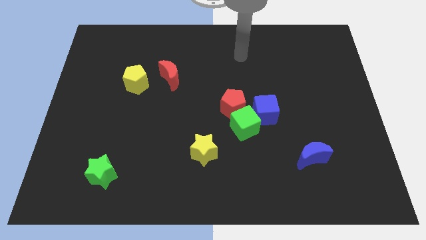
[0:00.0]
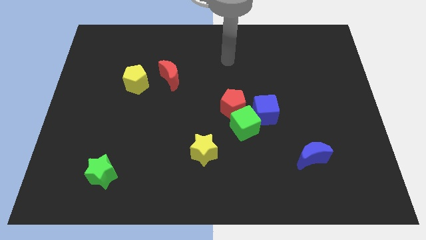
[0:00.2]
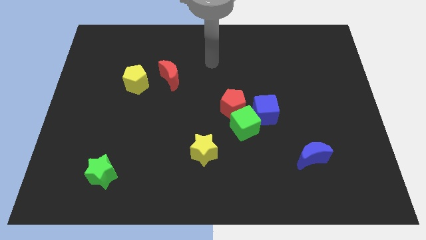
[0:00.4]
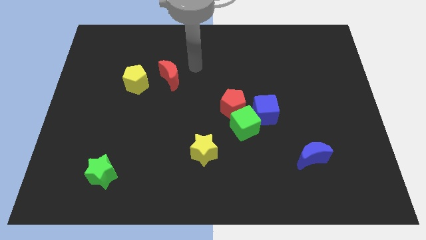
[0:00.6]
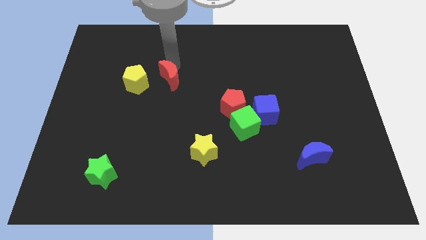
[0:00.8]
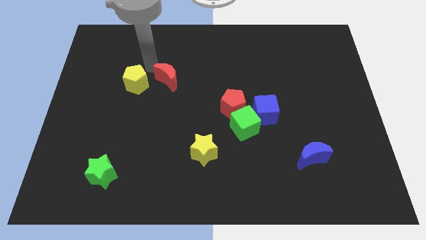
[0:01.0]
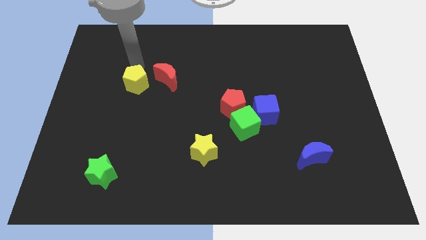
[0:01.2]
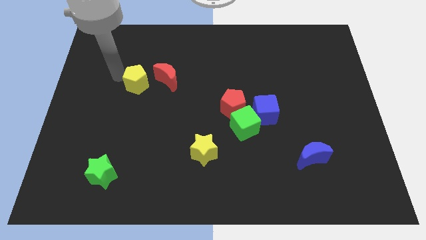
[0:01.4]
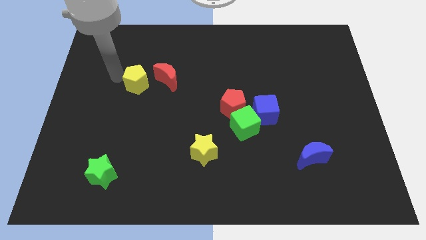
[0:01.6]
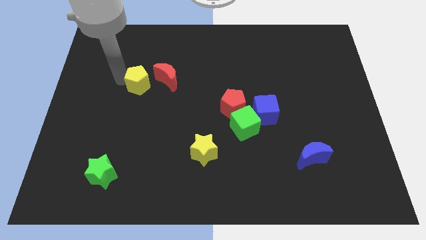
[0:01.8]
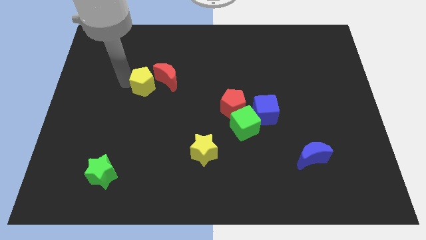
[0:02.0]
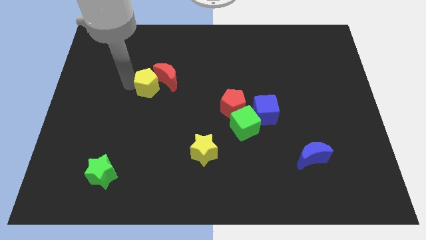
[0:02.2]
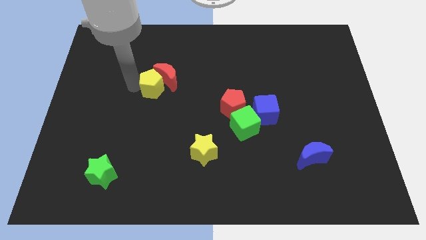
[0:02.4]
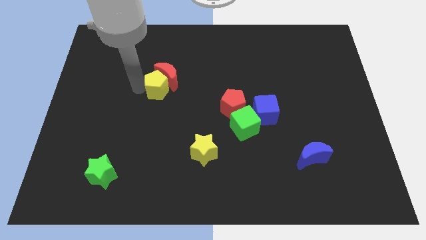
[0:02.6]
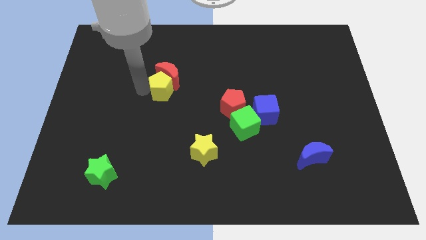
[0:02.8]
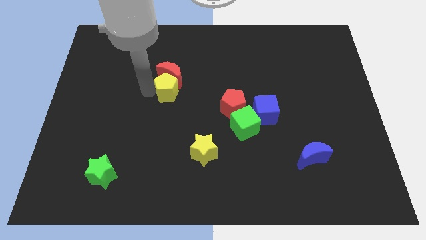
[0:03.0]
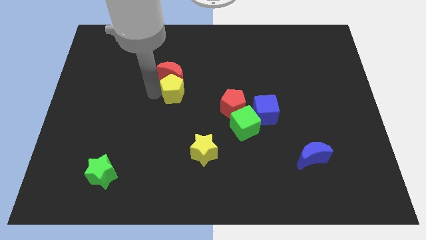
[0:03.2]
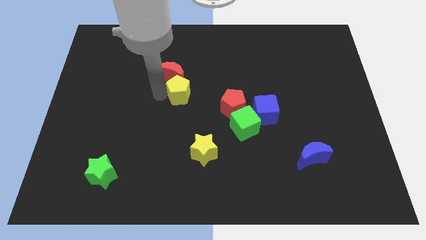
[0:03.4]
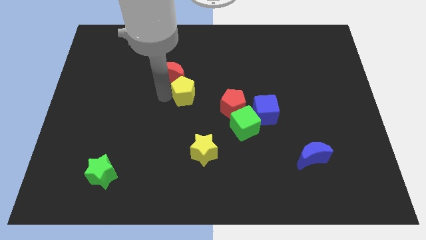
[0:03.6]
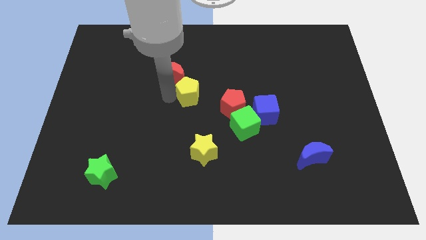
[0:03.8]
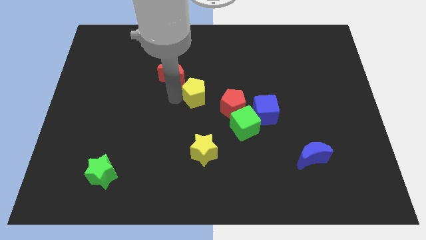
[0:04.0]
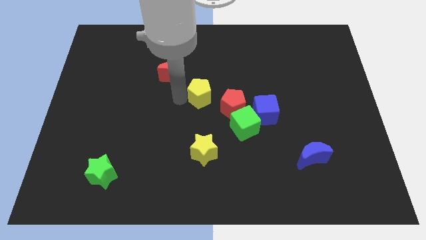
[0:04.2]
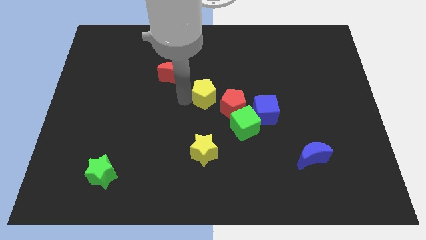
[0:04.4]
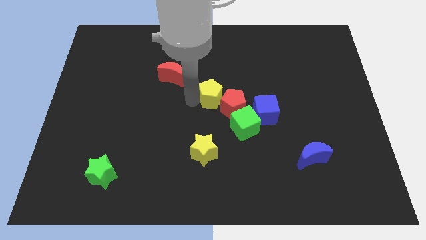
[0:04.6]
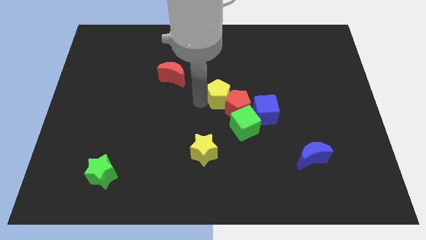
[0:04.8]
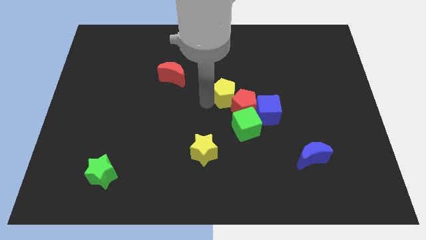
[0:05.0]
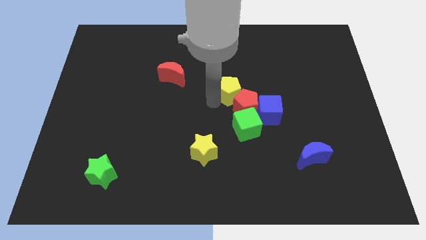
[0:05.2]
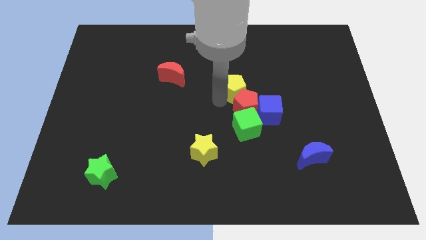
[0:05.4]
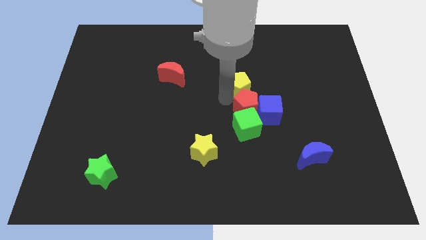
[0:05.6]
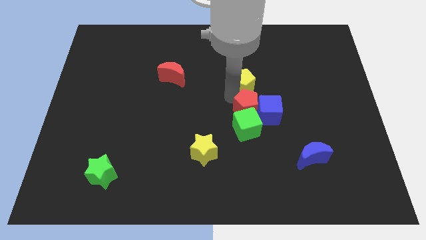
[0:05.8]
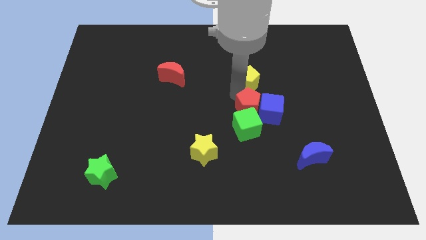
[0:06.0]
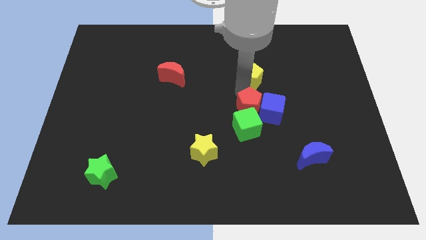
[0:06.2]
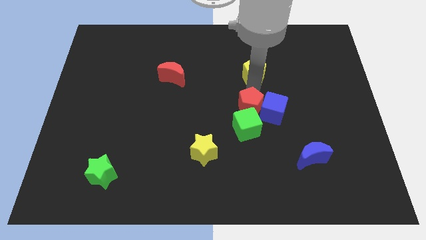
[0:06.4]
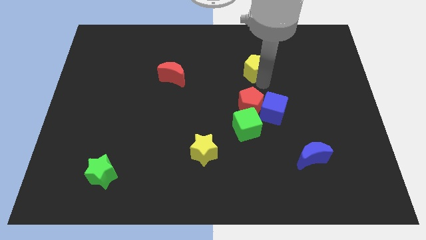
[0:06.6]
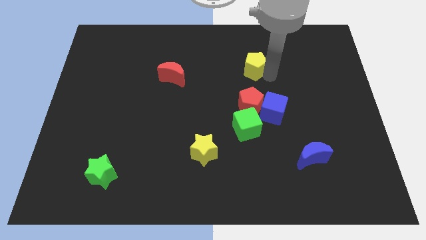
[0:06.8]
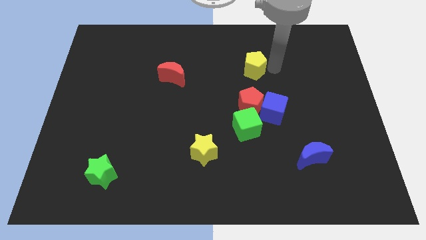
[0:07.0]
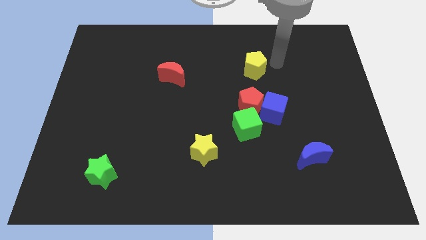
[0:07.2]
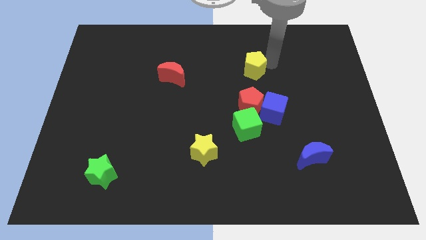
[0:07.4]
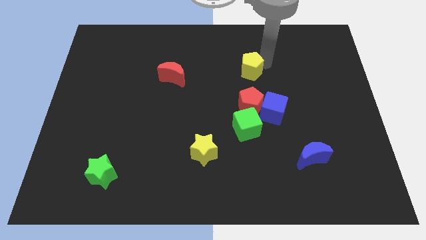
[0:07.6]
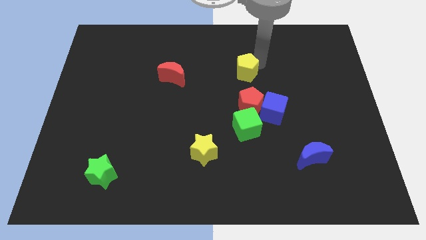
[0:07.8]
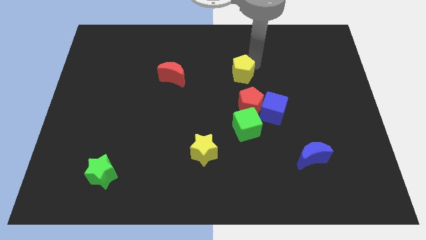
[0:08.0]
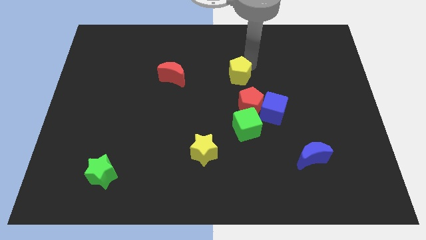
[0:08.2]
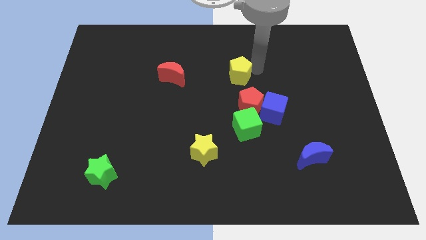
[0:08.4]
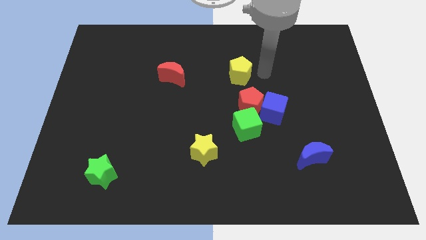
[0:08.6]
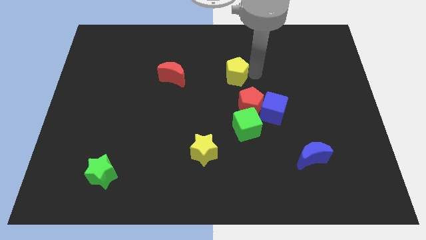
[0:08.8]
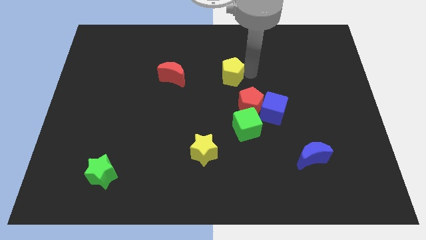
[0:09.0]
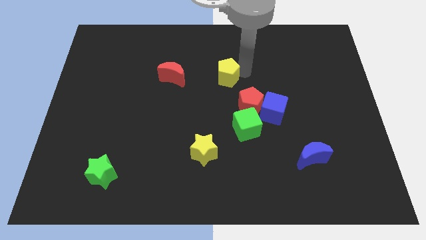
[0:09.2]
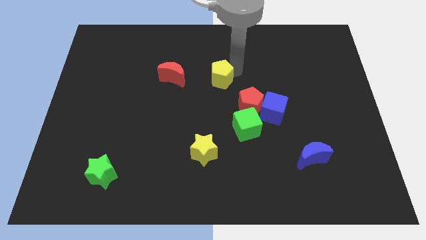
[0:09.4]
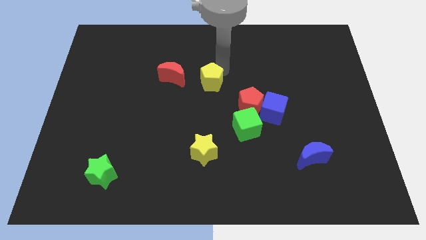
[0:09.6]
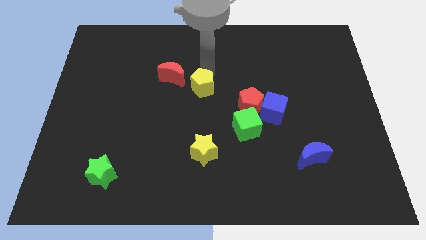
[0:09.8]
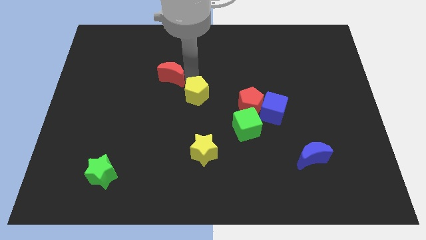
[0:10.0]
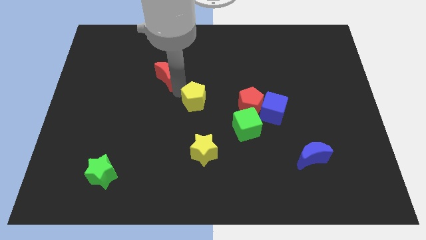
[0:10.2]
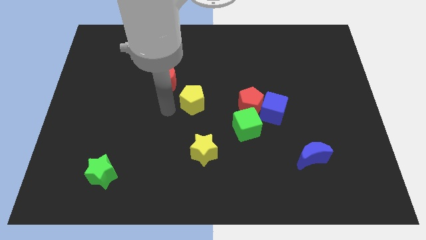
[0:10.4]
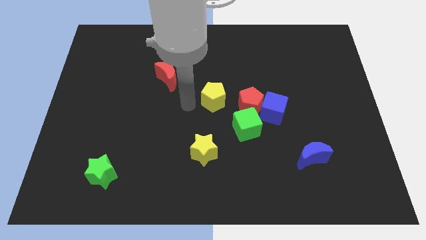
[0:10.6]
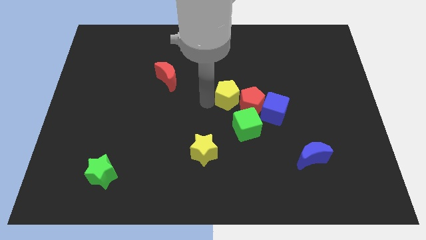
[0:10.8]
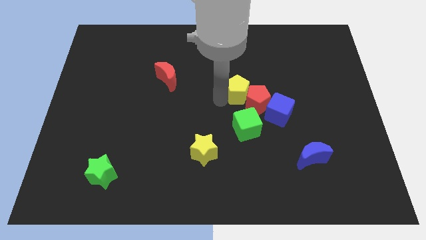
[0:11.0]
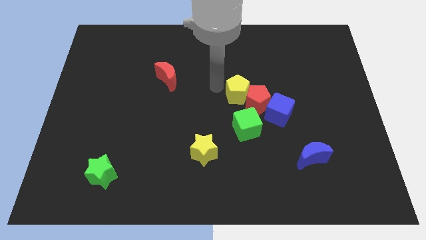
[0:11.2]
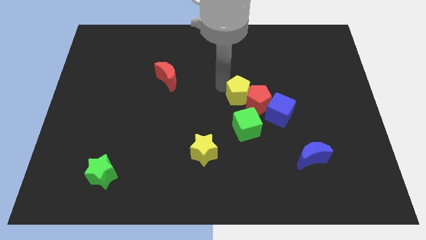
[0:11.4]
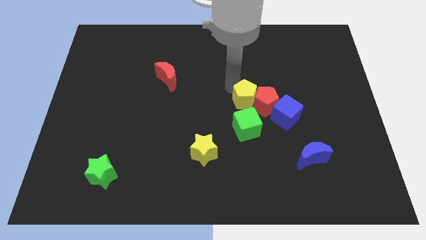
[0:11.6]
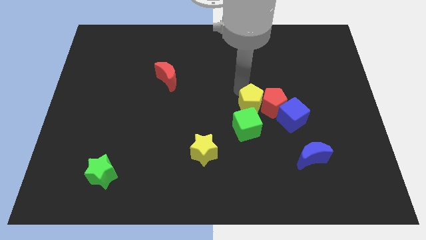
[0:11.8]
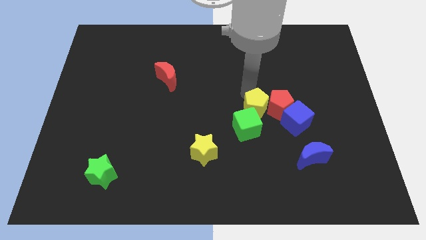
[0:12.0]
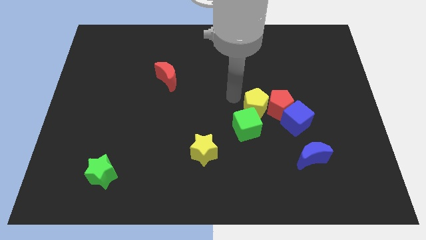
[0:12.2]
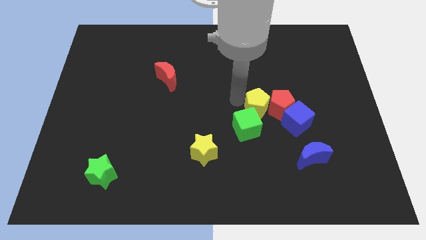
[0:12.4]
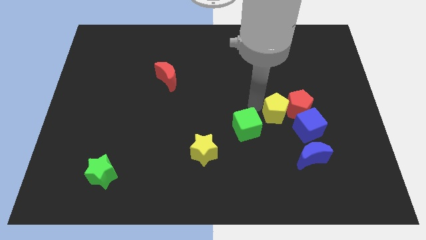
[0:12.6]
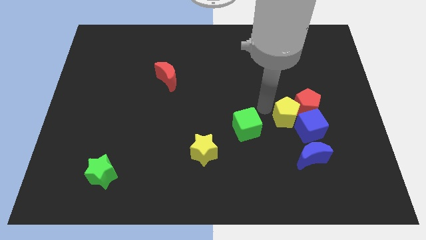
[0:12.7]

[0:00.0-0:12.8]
slide the yellow pentagon towards the blue cube

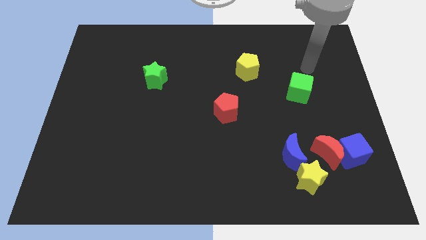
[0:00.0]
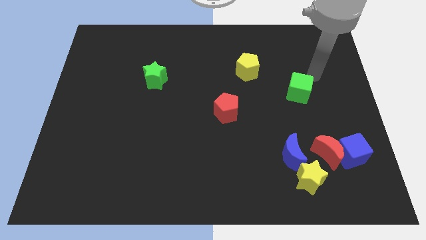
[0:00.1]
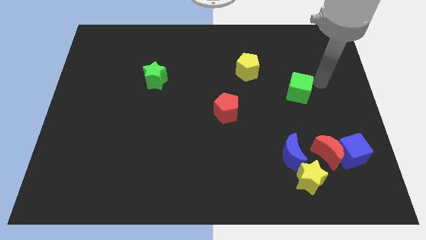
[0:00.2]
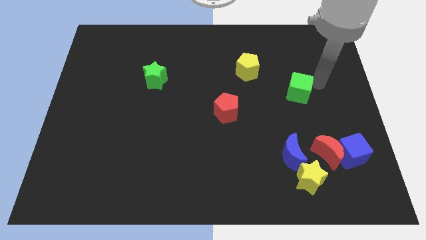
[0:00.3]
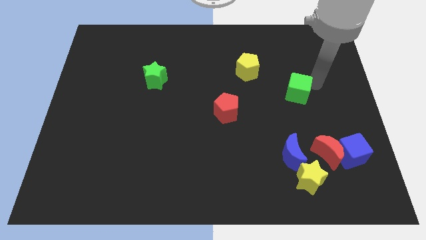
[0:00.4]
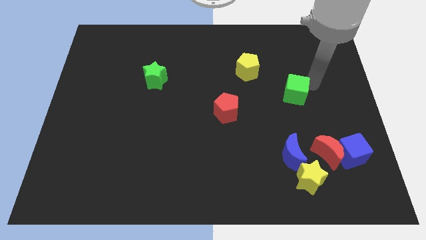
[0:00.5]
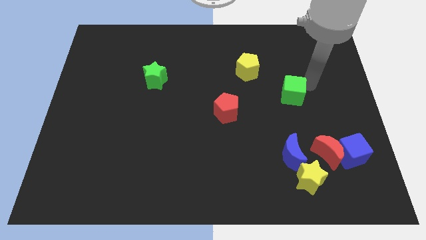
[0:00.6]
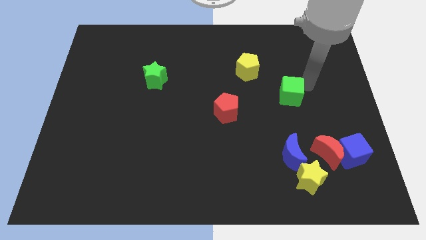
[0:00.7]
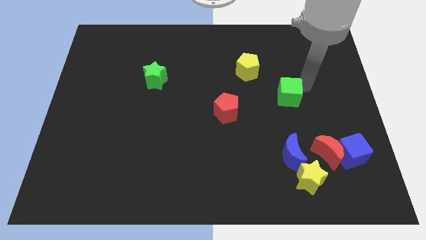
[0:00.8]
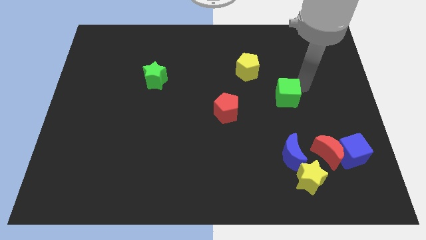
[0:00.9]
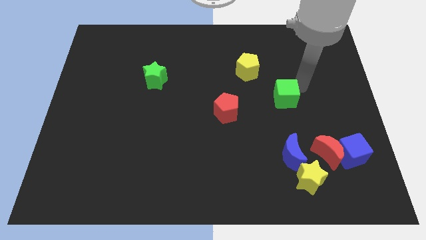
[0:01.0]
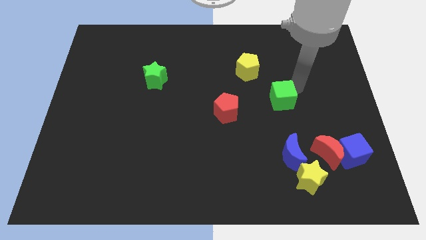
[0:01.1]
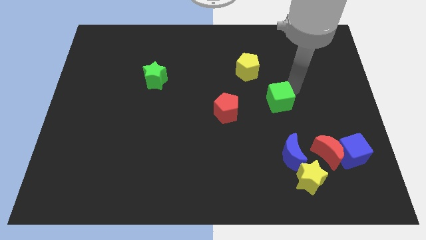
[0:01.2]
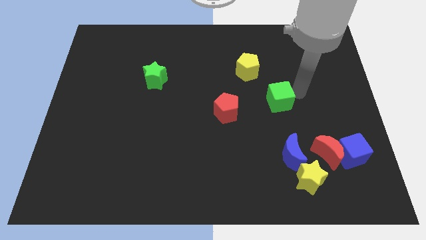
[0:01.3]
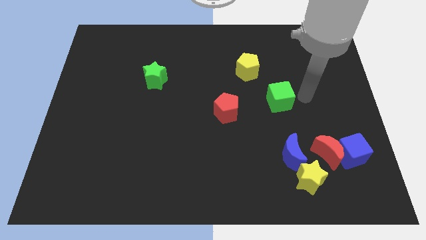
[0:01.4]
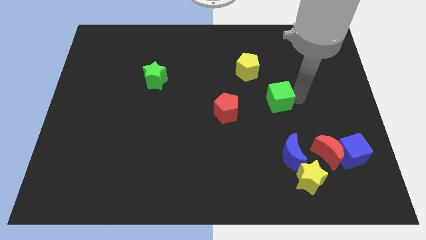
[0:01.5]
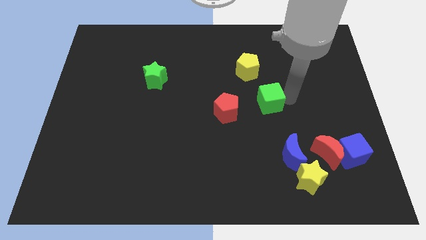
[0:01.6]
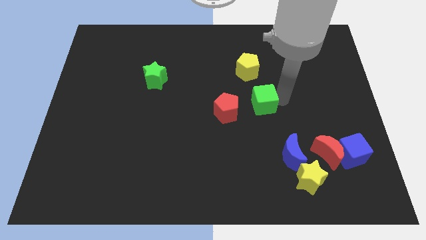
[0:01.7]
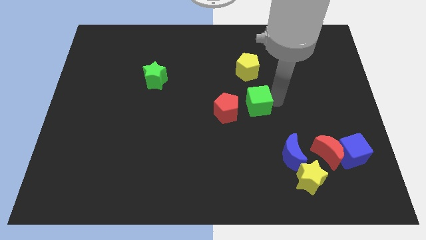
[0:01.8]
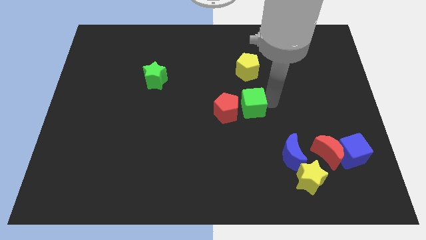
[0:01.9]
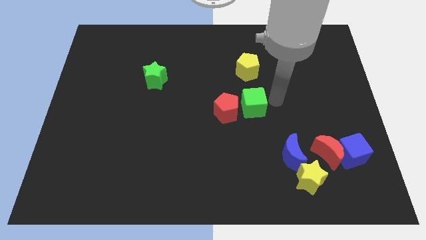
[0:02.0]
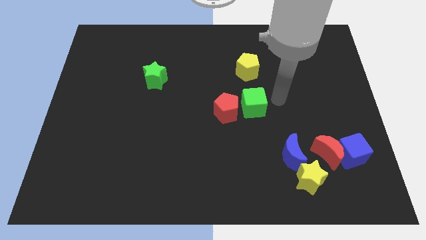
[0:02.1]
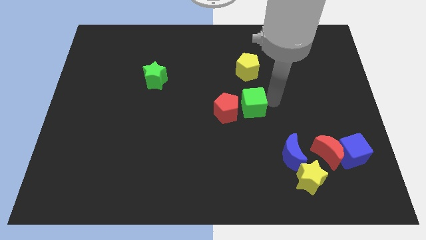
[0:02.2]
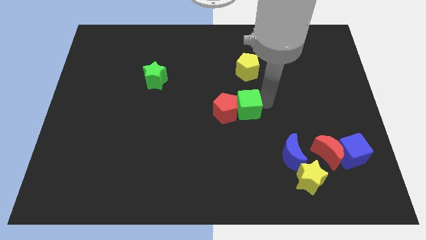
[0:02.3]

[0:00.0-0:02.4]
put the green cube close to the red pentagon
